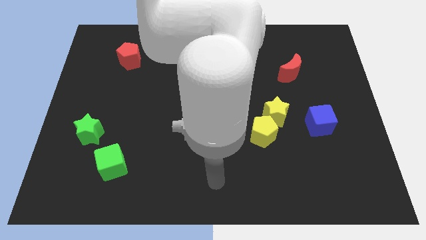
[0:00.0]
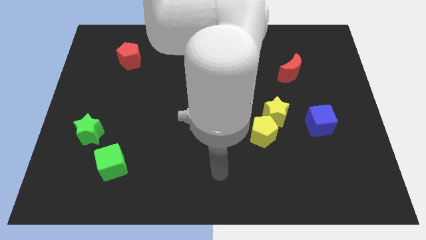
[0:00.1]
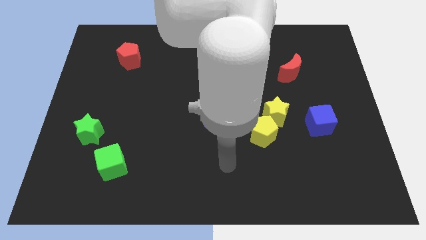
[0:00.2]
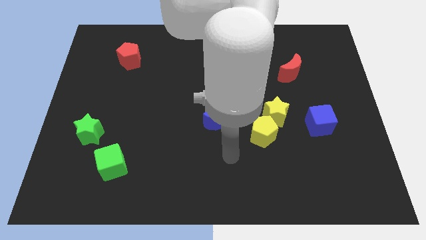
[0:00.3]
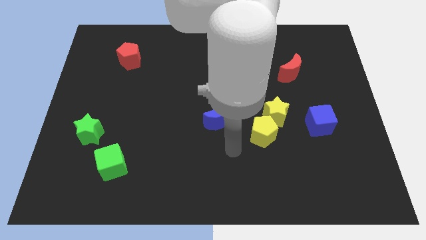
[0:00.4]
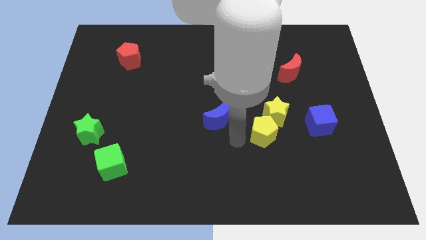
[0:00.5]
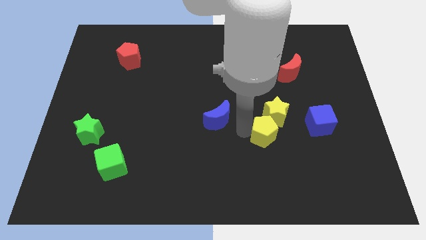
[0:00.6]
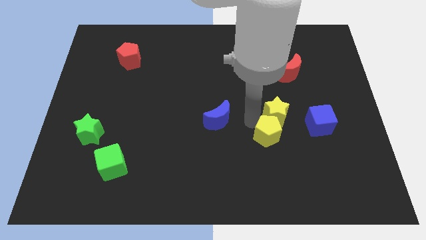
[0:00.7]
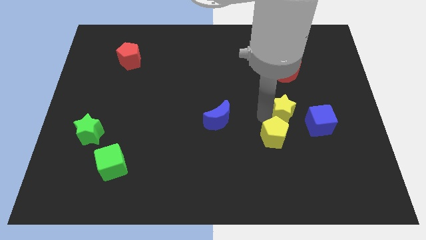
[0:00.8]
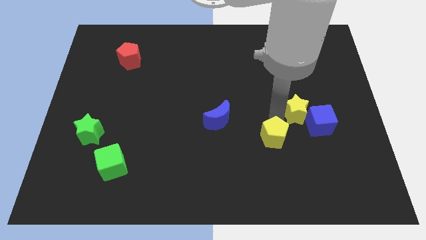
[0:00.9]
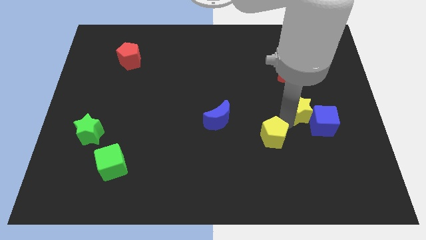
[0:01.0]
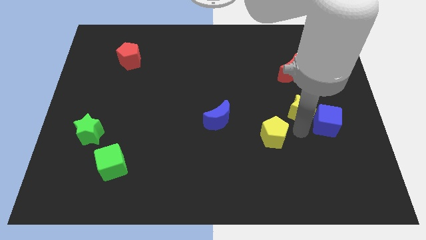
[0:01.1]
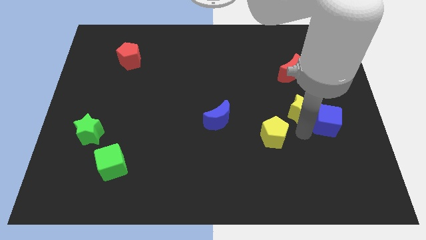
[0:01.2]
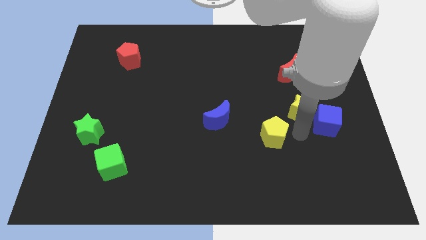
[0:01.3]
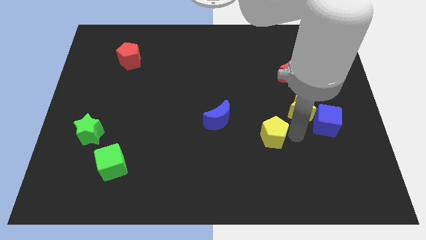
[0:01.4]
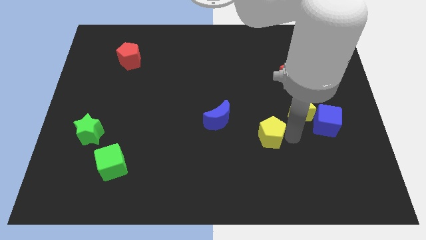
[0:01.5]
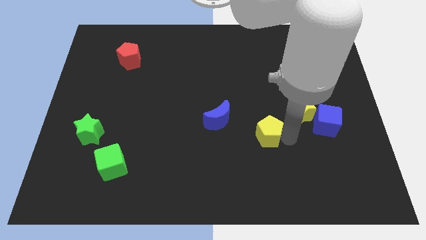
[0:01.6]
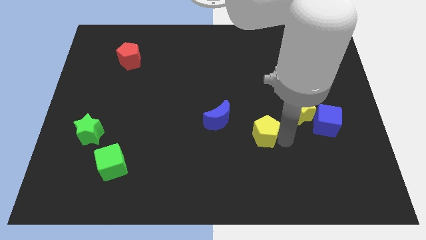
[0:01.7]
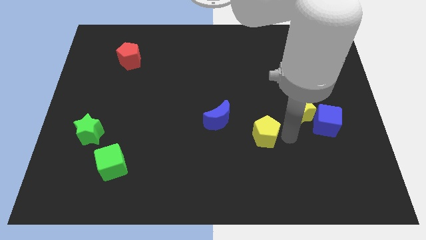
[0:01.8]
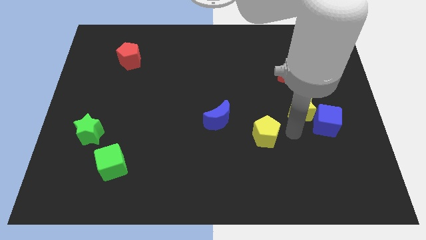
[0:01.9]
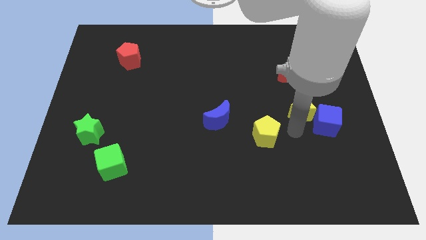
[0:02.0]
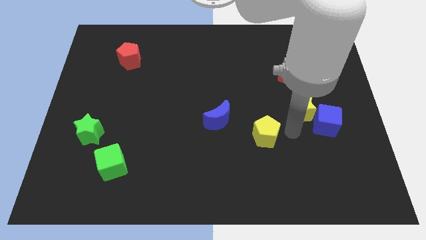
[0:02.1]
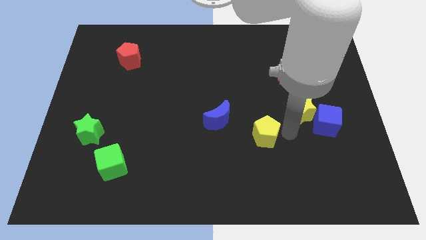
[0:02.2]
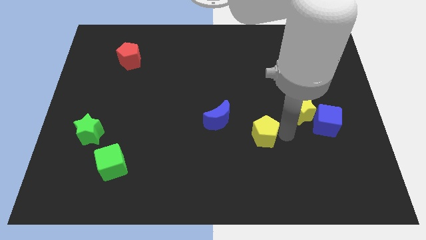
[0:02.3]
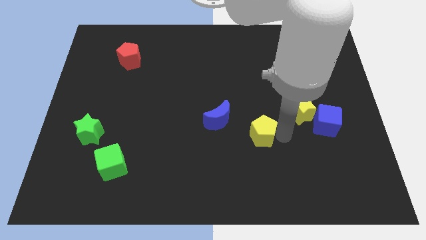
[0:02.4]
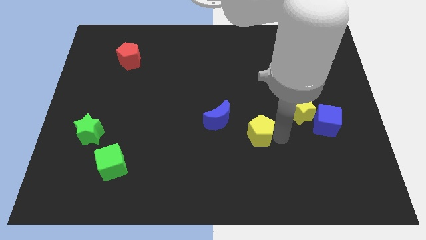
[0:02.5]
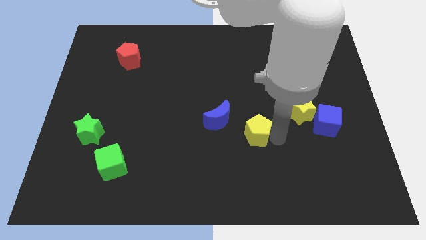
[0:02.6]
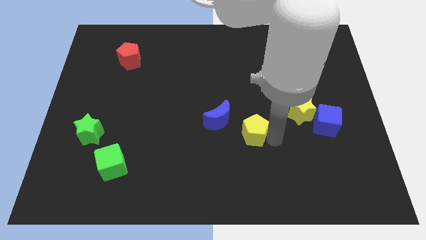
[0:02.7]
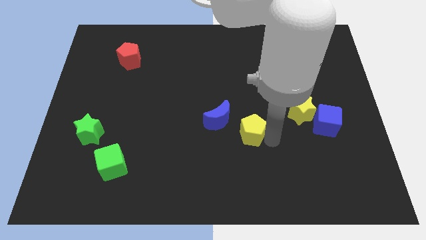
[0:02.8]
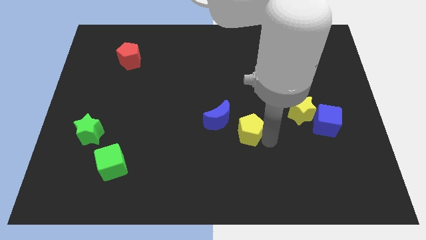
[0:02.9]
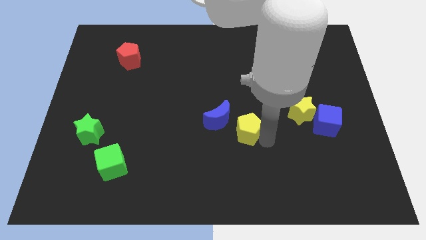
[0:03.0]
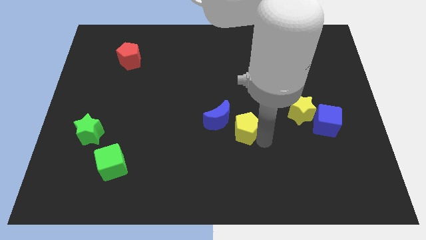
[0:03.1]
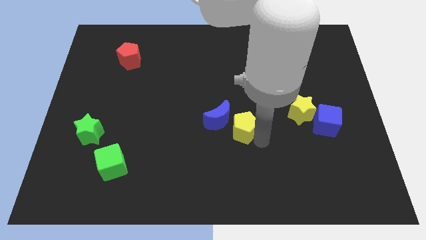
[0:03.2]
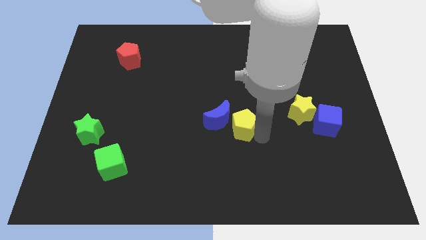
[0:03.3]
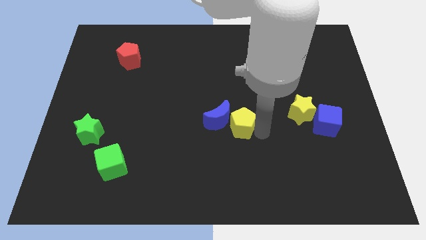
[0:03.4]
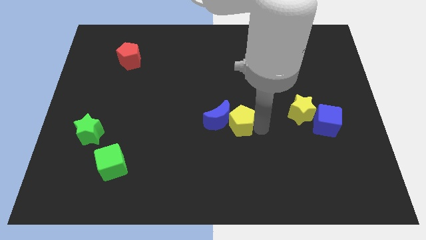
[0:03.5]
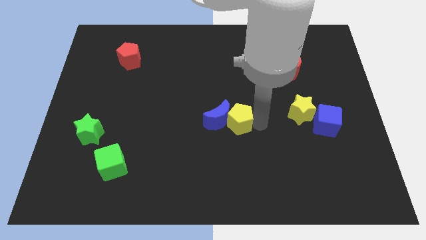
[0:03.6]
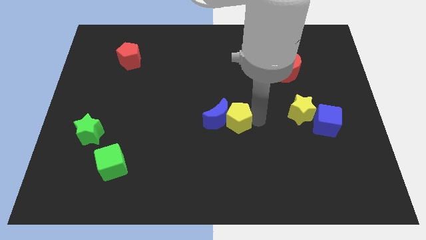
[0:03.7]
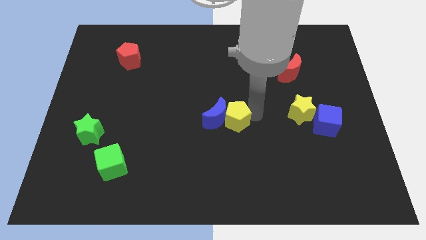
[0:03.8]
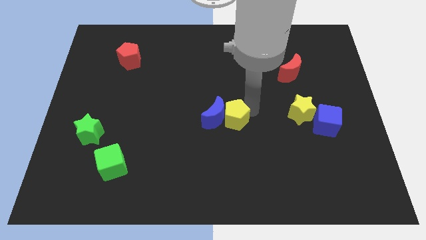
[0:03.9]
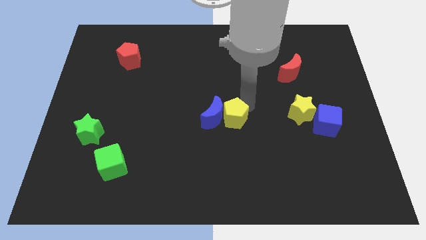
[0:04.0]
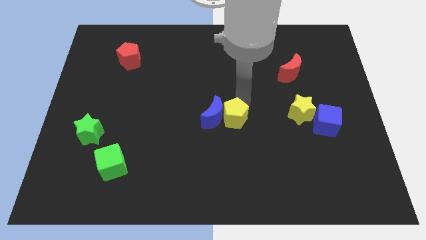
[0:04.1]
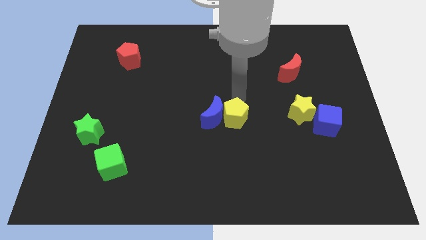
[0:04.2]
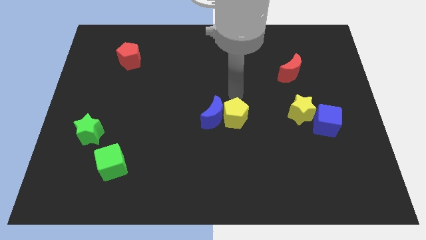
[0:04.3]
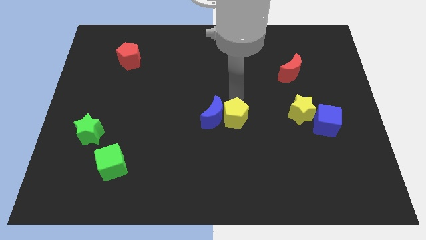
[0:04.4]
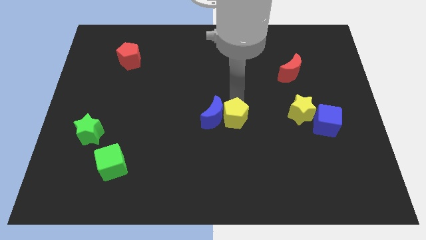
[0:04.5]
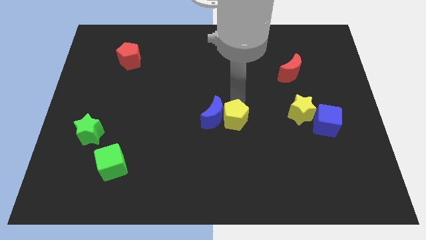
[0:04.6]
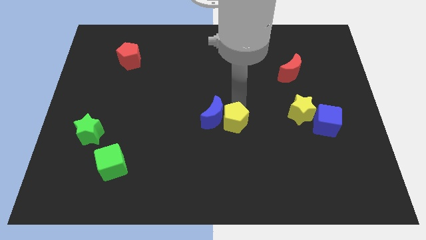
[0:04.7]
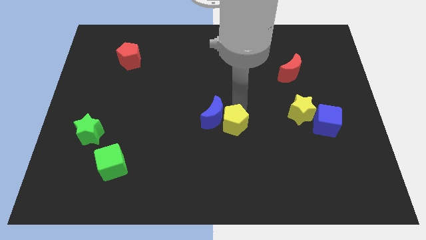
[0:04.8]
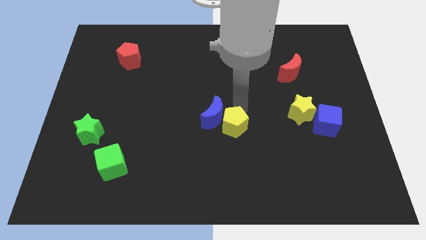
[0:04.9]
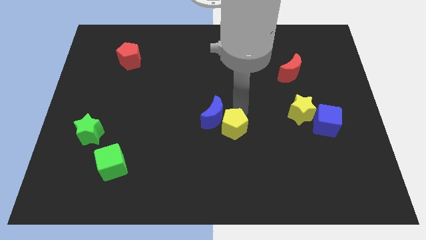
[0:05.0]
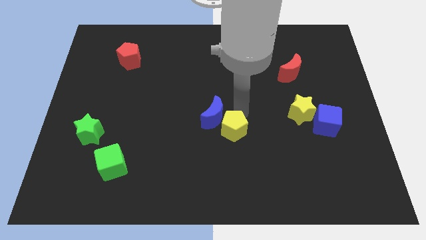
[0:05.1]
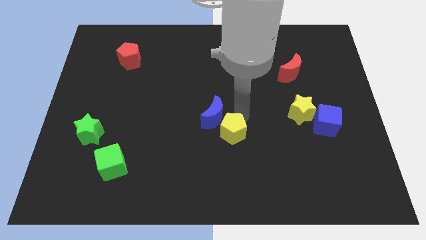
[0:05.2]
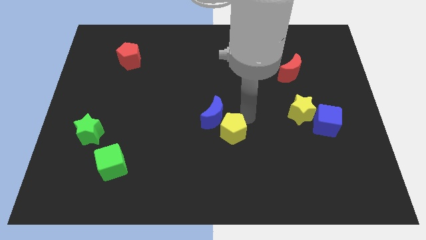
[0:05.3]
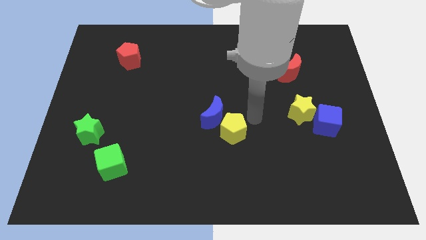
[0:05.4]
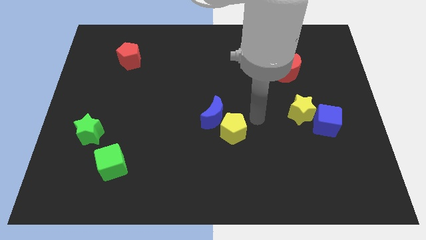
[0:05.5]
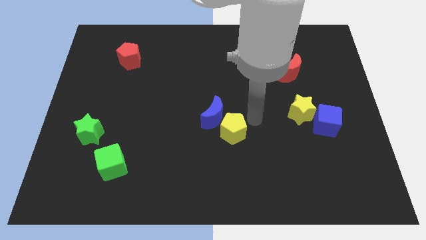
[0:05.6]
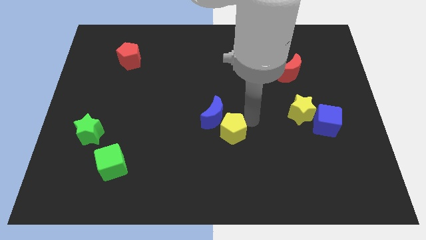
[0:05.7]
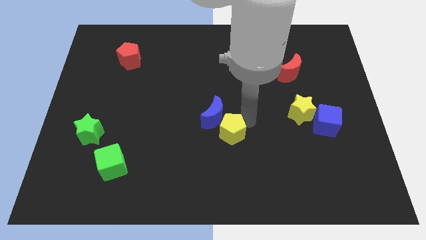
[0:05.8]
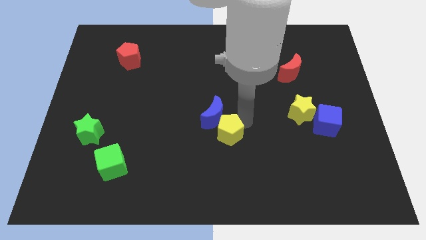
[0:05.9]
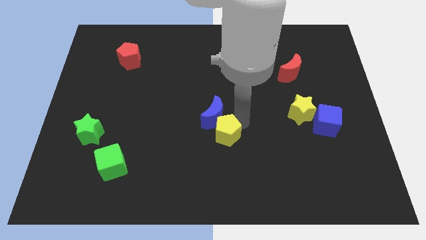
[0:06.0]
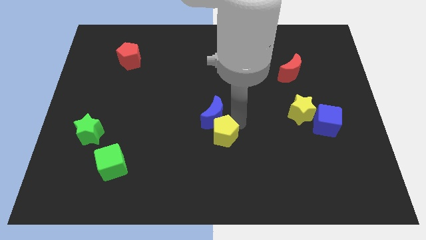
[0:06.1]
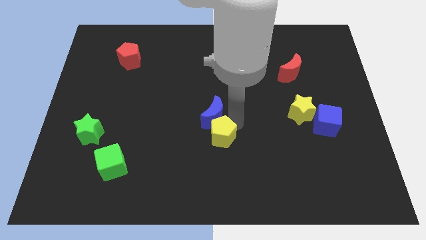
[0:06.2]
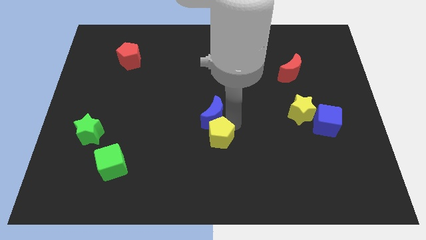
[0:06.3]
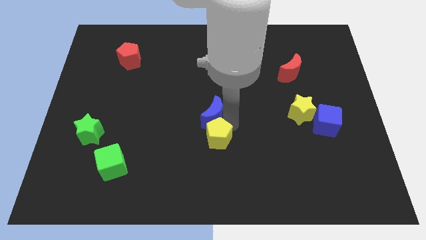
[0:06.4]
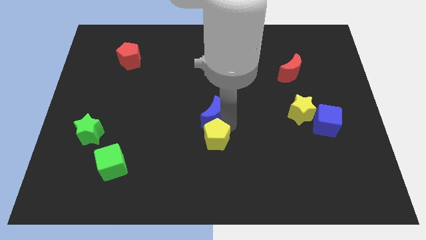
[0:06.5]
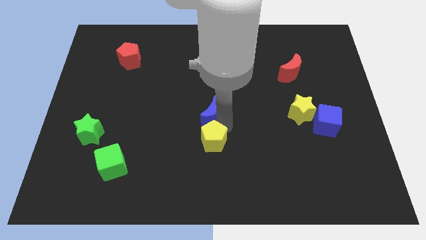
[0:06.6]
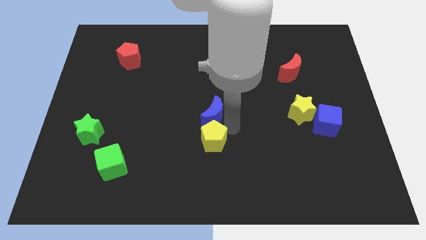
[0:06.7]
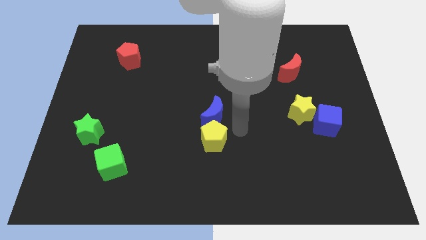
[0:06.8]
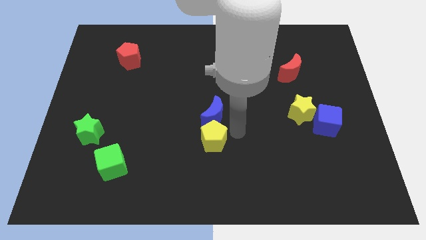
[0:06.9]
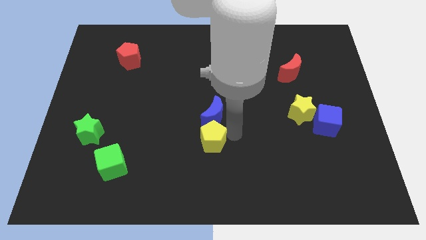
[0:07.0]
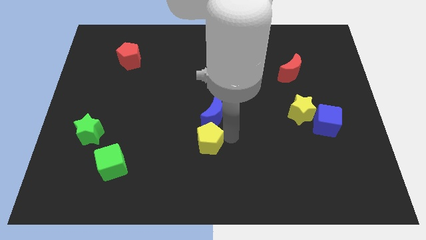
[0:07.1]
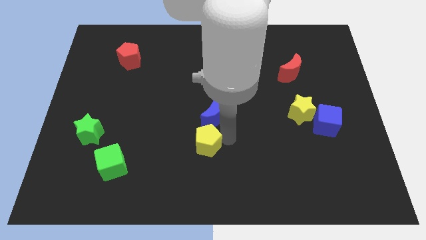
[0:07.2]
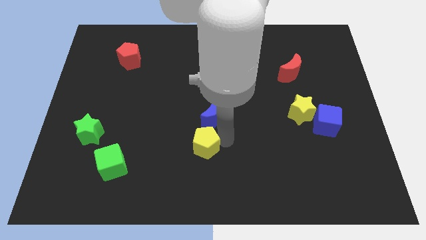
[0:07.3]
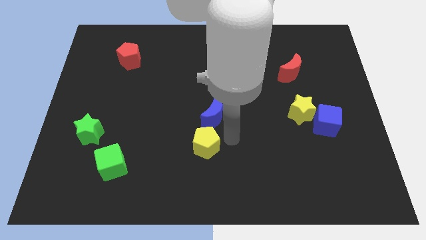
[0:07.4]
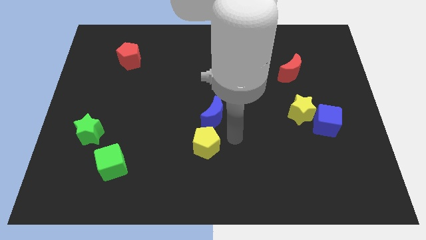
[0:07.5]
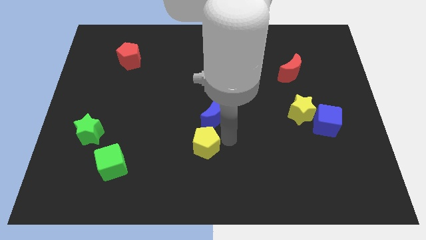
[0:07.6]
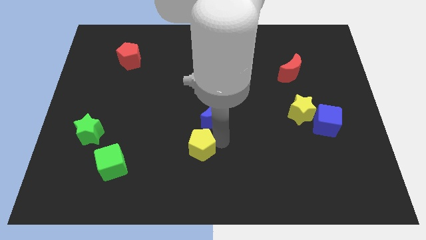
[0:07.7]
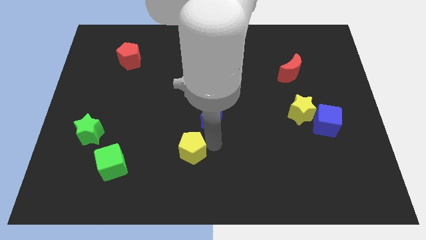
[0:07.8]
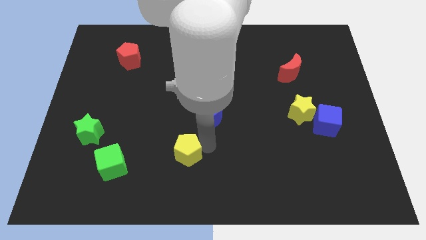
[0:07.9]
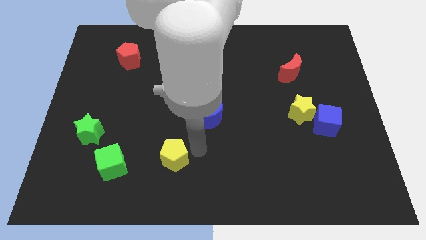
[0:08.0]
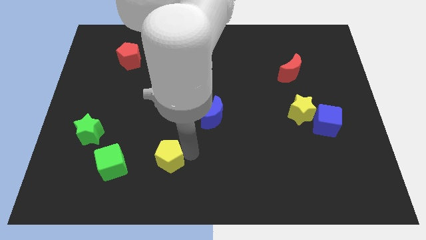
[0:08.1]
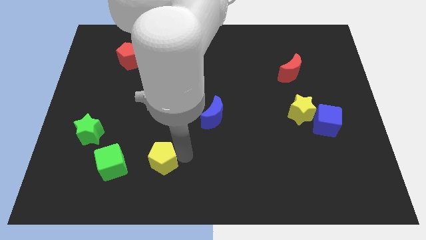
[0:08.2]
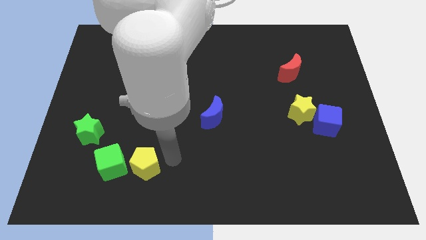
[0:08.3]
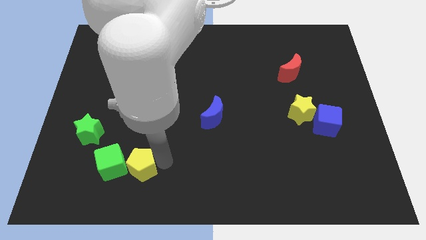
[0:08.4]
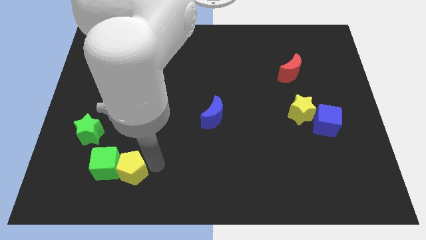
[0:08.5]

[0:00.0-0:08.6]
slide the yellow pentagon close to the green cube
